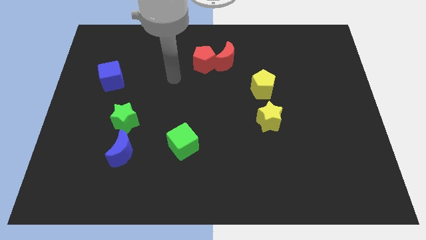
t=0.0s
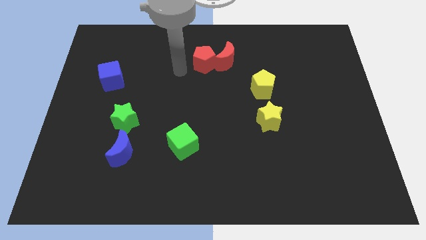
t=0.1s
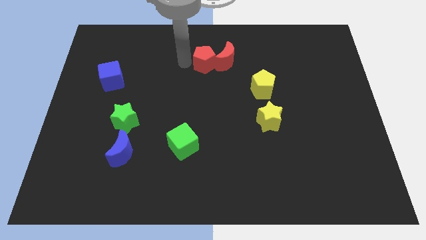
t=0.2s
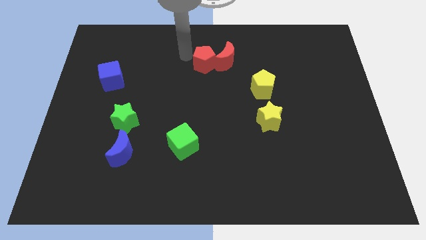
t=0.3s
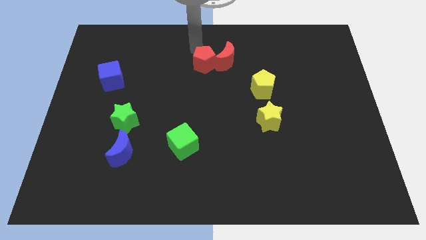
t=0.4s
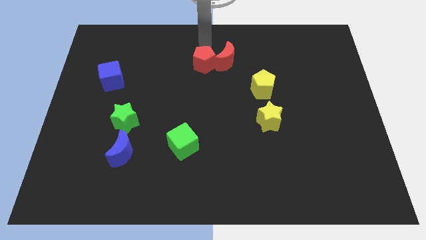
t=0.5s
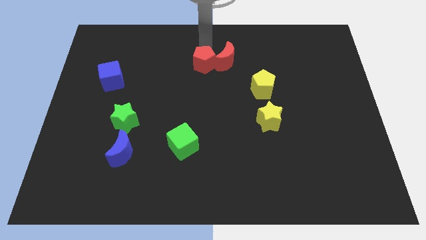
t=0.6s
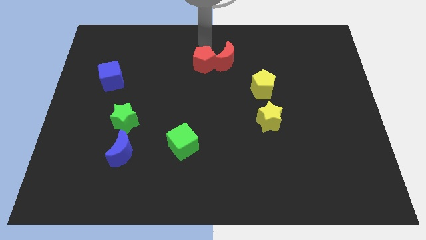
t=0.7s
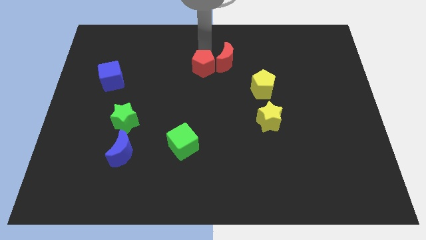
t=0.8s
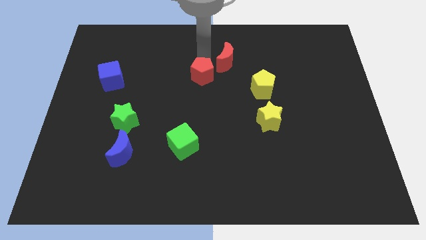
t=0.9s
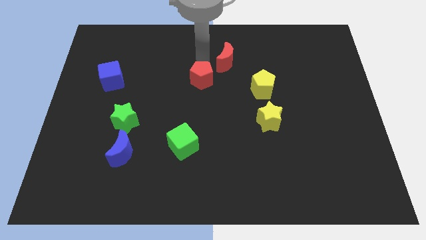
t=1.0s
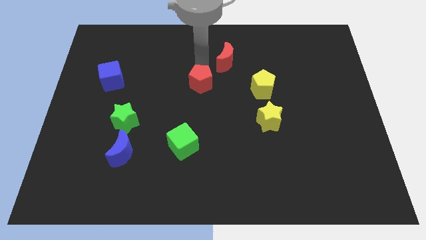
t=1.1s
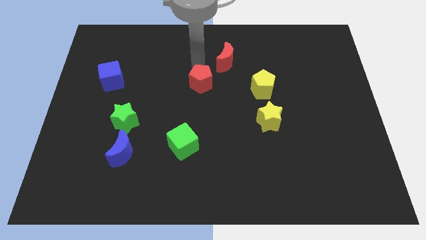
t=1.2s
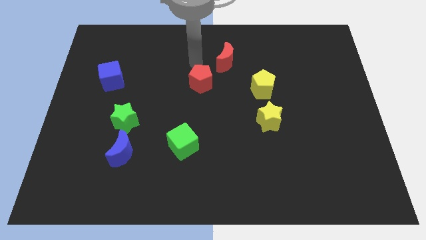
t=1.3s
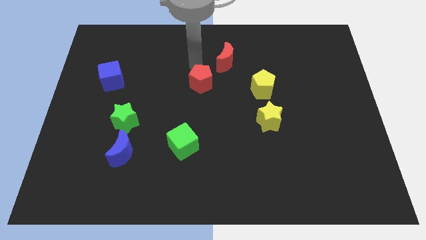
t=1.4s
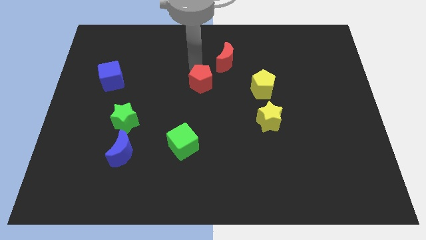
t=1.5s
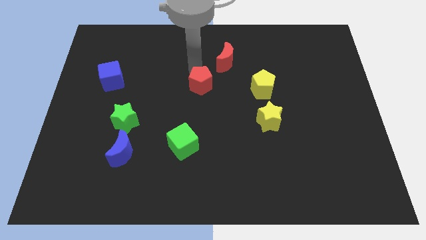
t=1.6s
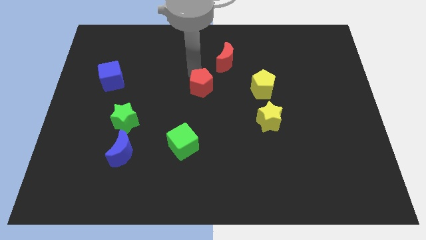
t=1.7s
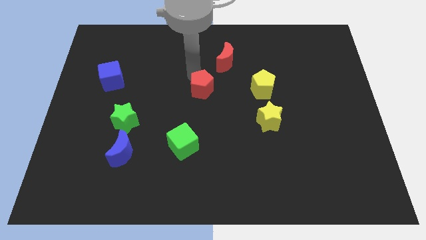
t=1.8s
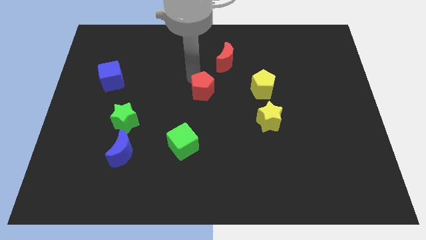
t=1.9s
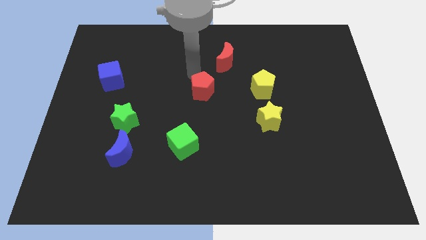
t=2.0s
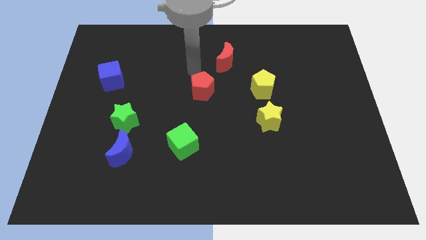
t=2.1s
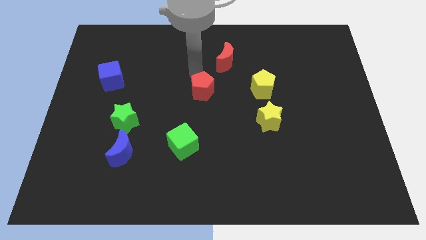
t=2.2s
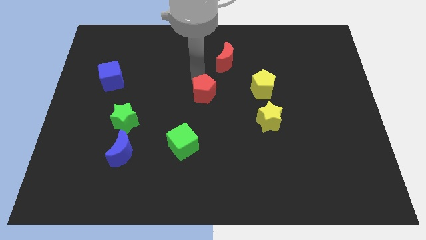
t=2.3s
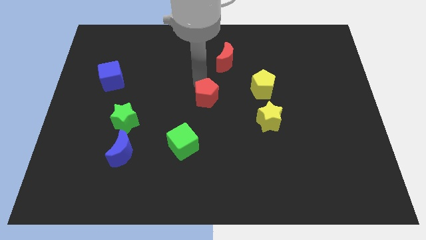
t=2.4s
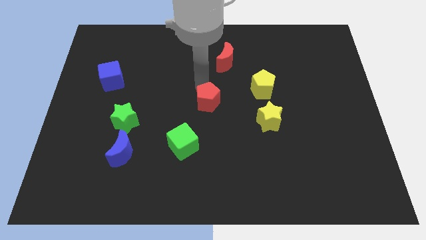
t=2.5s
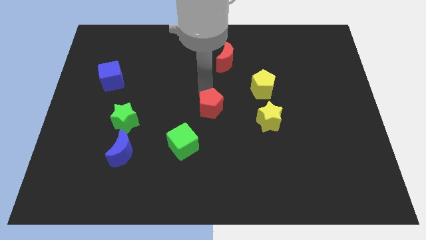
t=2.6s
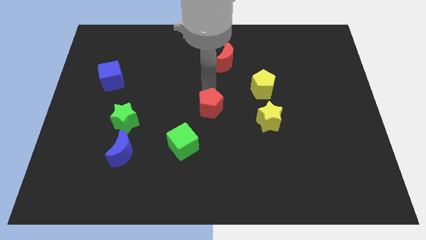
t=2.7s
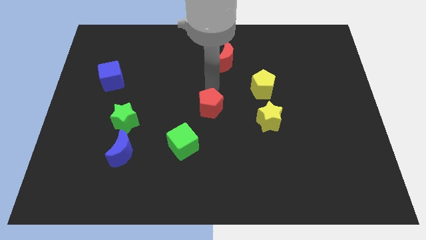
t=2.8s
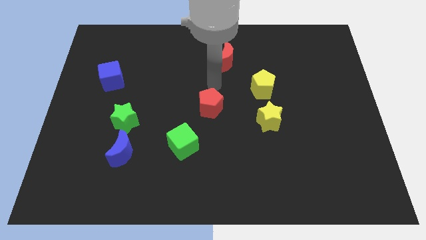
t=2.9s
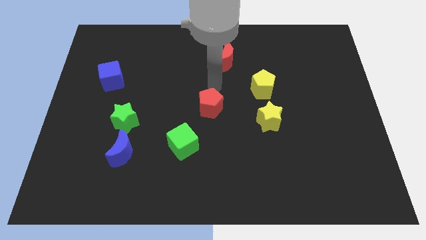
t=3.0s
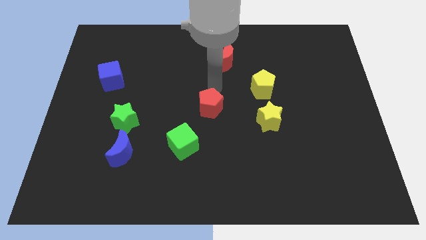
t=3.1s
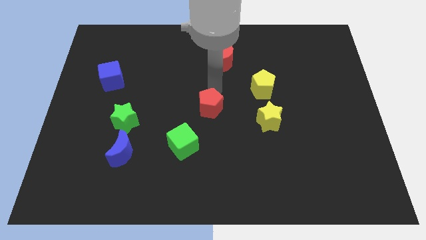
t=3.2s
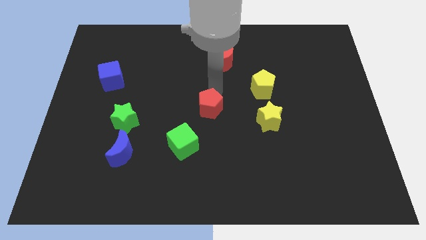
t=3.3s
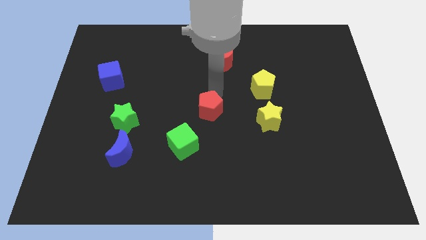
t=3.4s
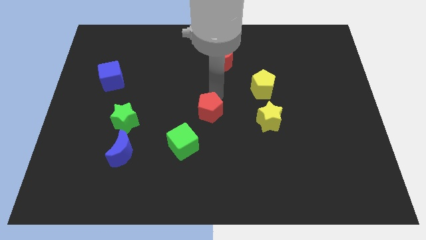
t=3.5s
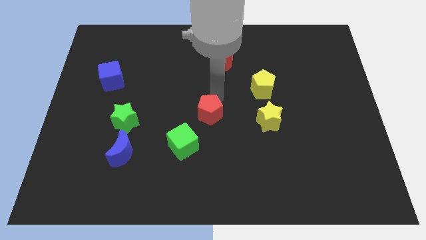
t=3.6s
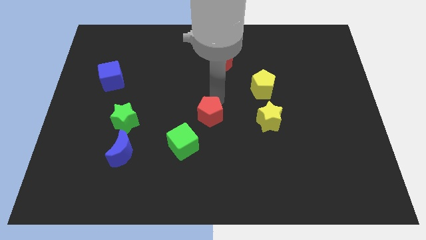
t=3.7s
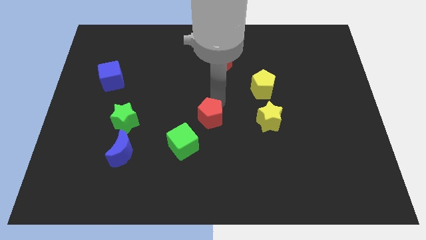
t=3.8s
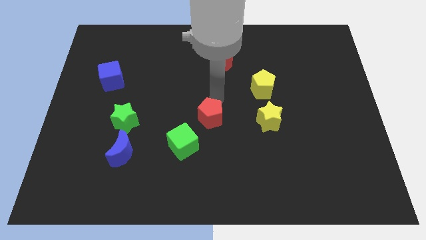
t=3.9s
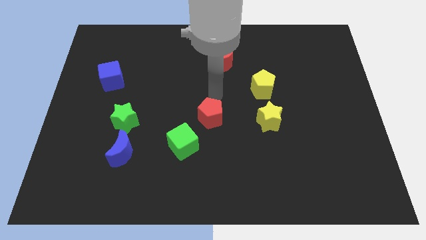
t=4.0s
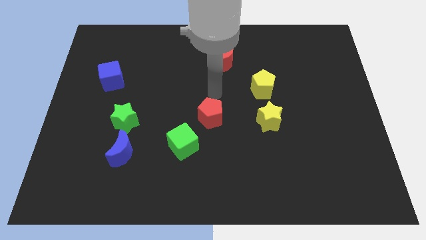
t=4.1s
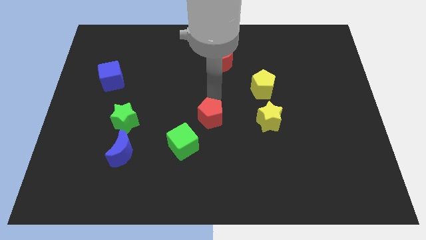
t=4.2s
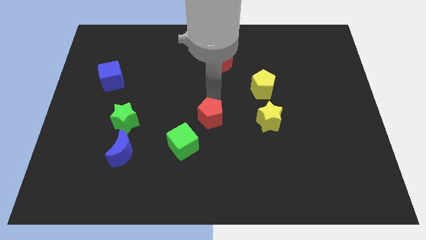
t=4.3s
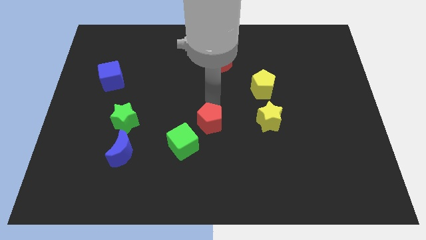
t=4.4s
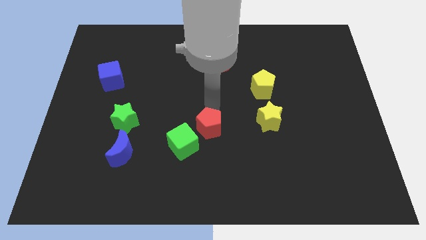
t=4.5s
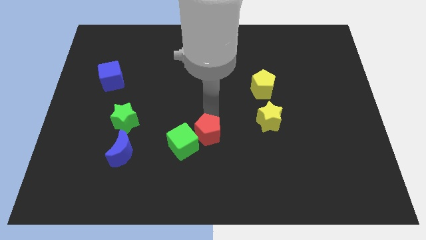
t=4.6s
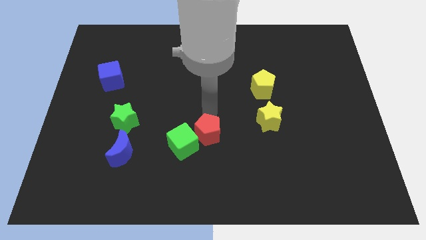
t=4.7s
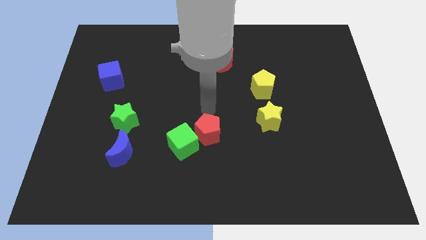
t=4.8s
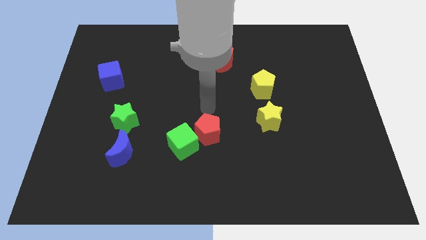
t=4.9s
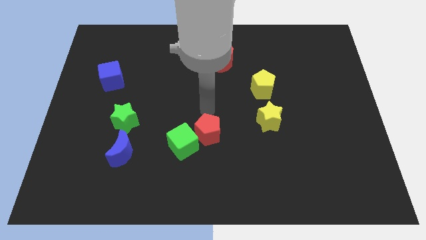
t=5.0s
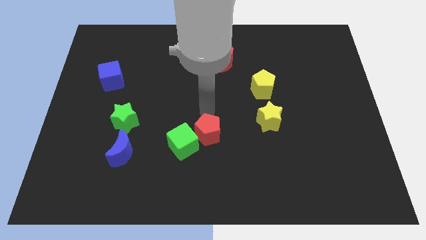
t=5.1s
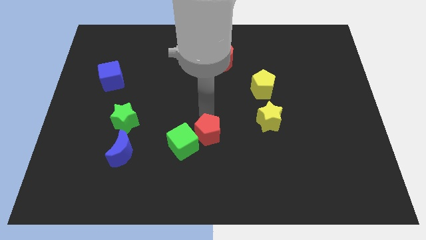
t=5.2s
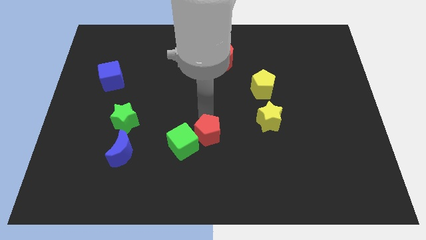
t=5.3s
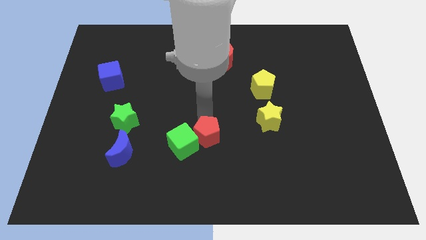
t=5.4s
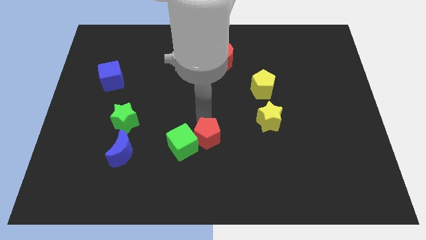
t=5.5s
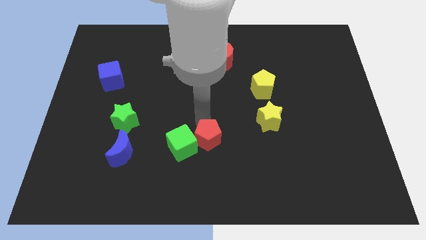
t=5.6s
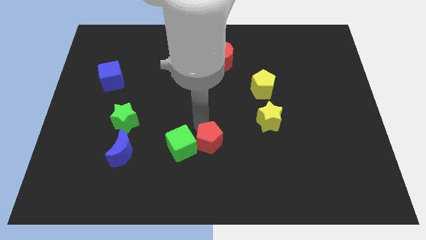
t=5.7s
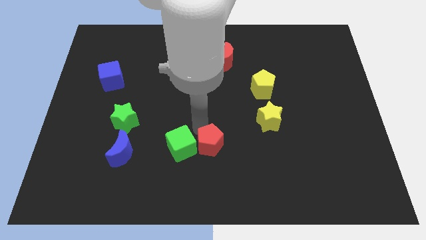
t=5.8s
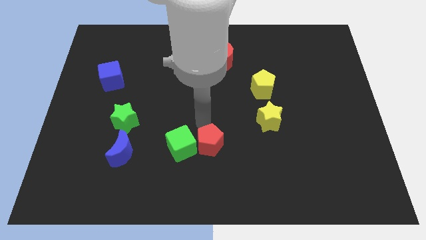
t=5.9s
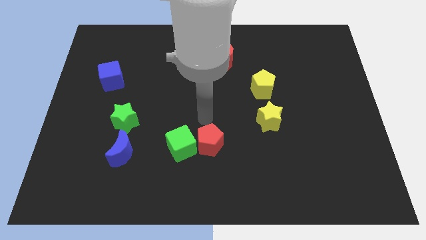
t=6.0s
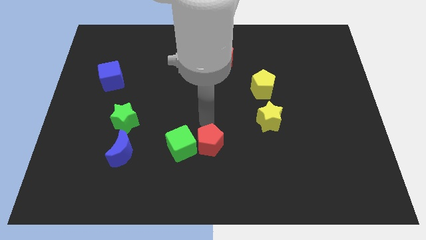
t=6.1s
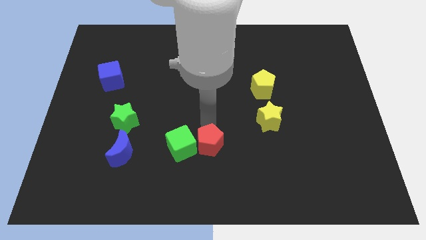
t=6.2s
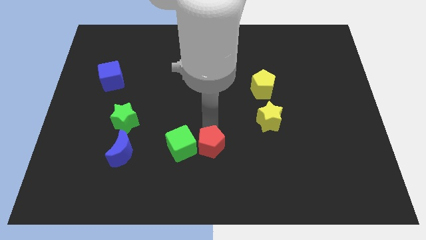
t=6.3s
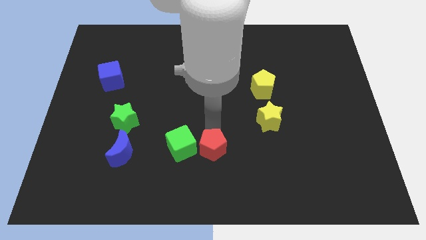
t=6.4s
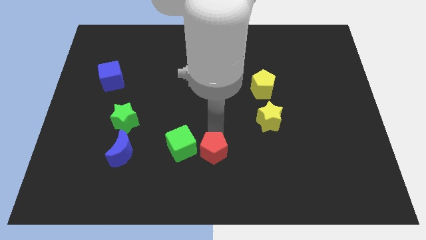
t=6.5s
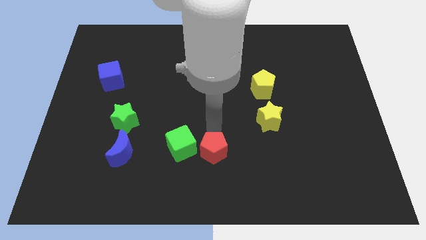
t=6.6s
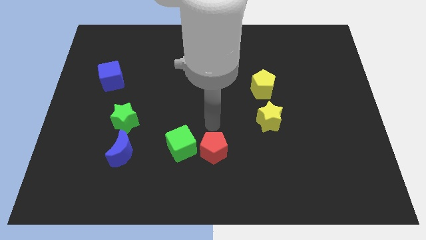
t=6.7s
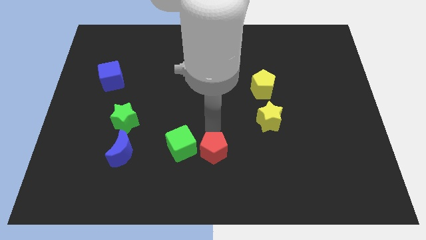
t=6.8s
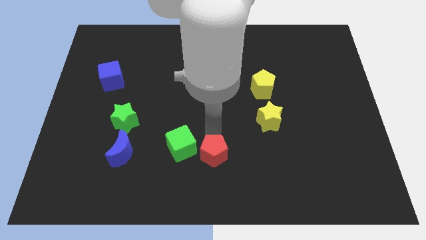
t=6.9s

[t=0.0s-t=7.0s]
put the red pentagon to the bottom side
